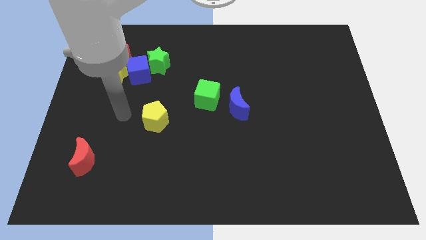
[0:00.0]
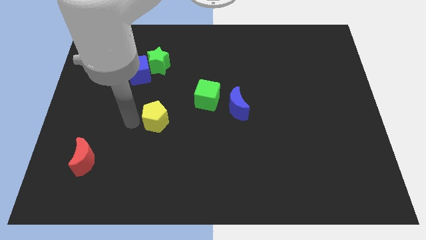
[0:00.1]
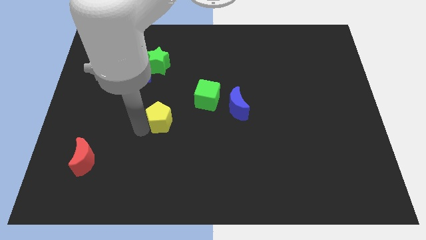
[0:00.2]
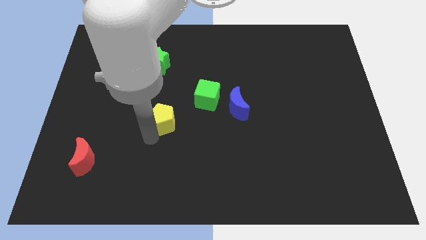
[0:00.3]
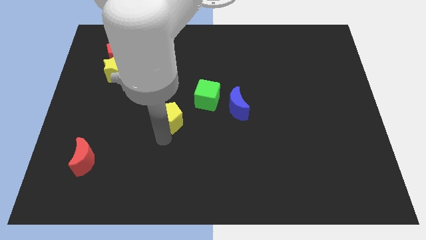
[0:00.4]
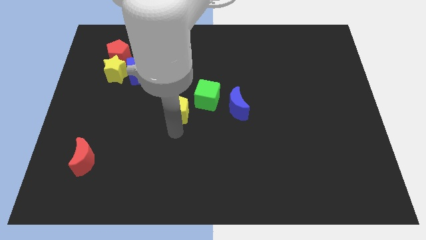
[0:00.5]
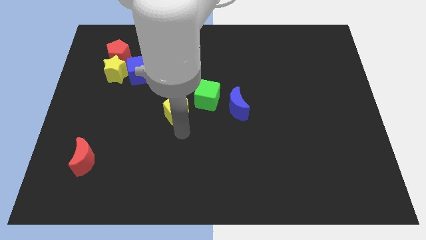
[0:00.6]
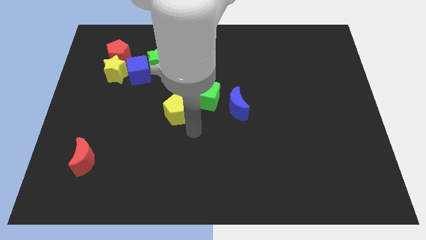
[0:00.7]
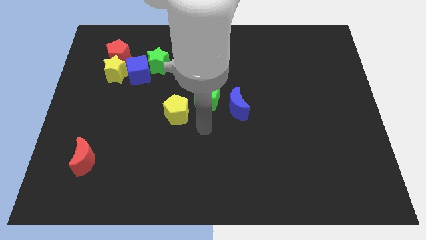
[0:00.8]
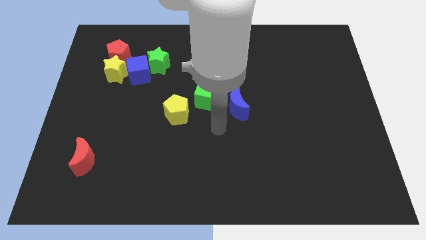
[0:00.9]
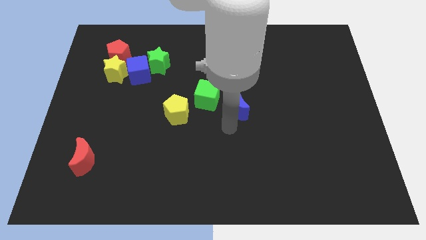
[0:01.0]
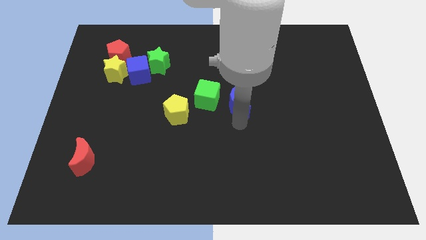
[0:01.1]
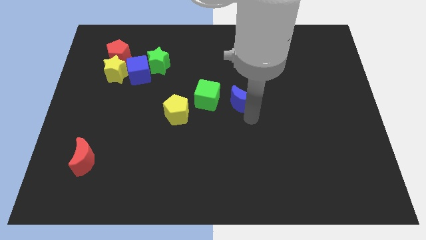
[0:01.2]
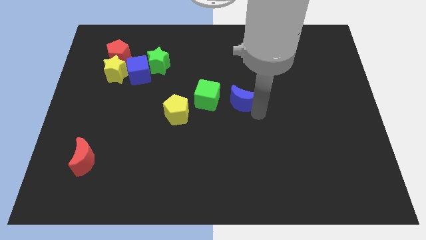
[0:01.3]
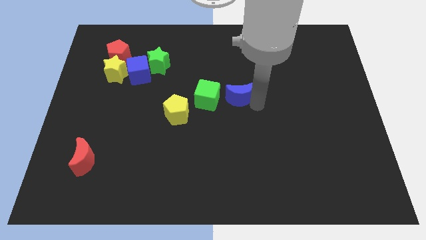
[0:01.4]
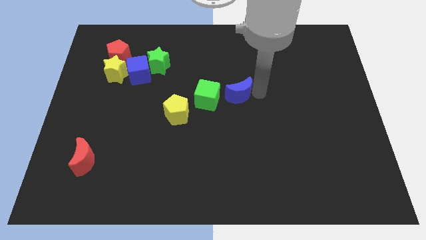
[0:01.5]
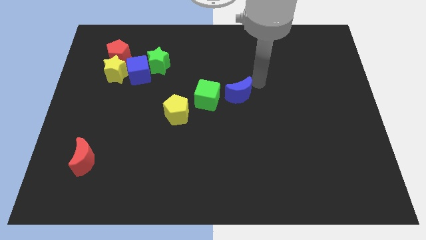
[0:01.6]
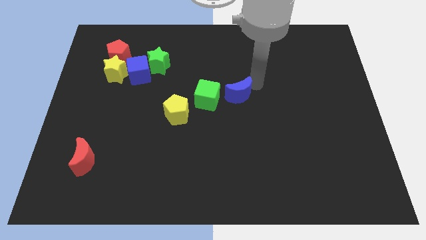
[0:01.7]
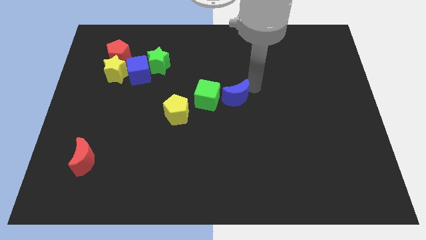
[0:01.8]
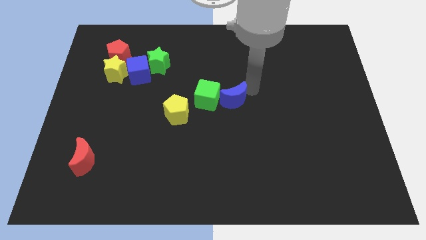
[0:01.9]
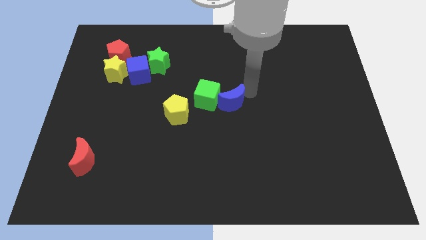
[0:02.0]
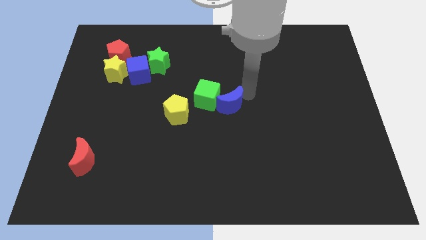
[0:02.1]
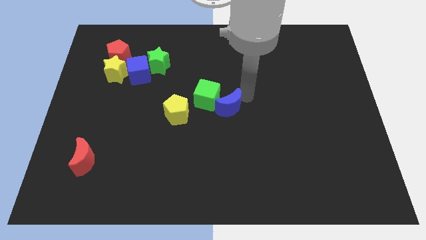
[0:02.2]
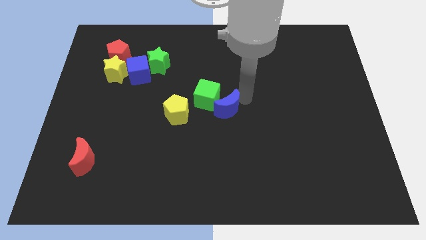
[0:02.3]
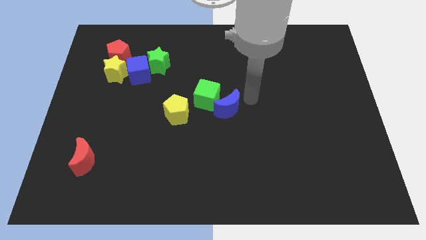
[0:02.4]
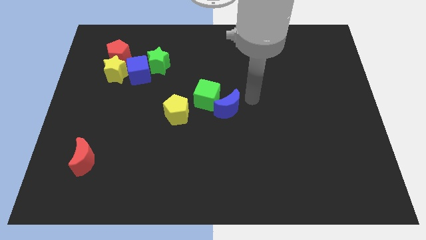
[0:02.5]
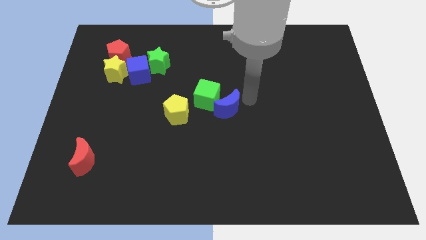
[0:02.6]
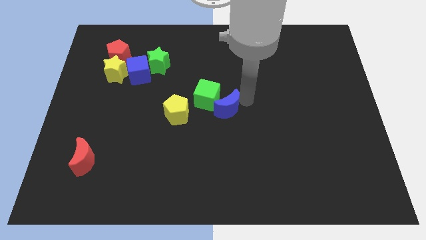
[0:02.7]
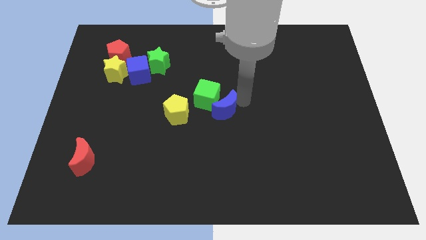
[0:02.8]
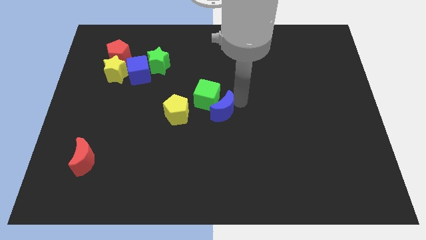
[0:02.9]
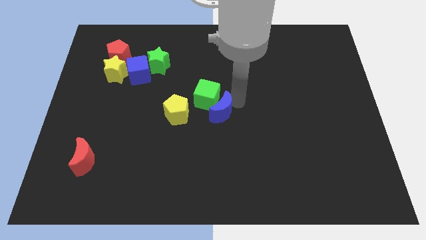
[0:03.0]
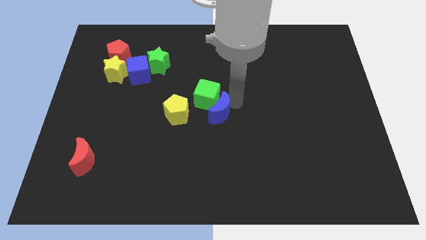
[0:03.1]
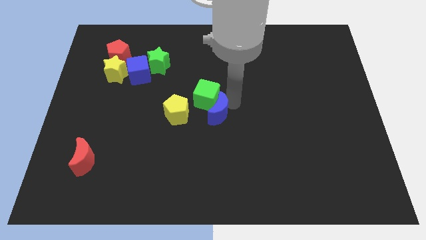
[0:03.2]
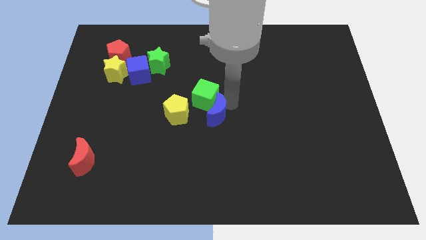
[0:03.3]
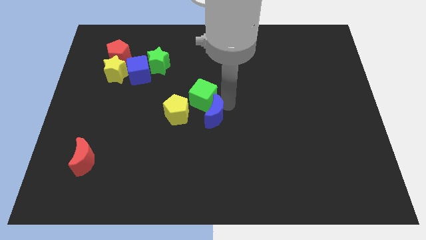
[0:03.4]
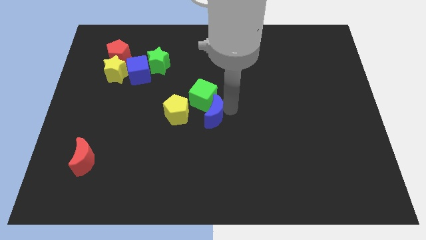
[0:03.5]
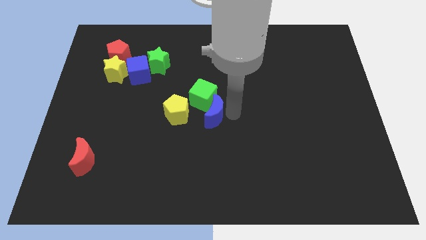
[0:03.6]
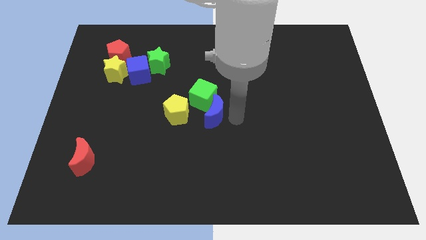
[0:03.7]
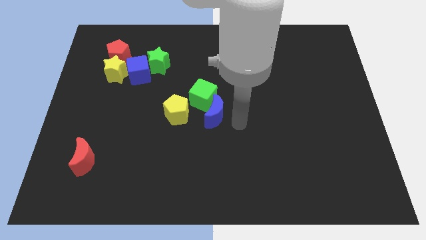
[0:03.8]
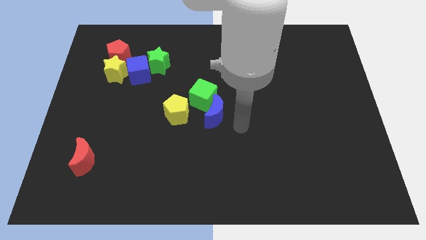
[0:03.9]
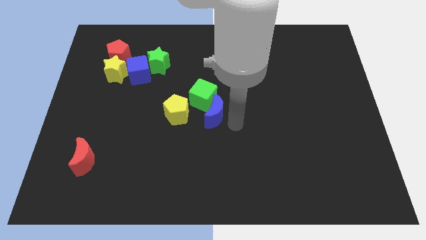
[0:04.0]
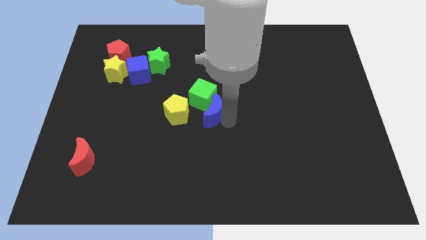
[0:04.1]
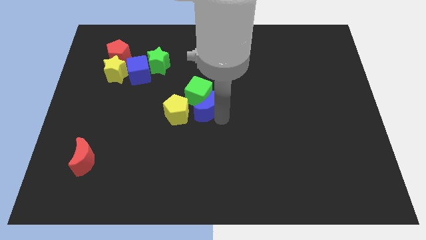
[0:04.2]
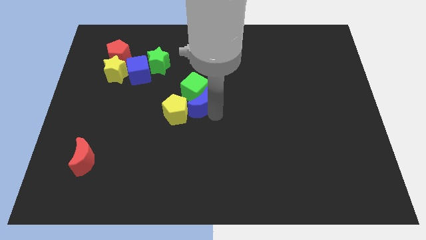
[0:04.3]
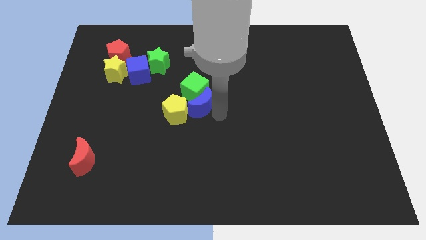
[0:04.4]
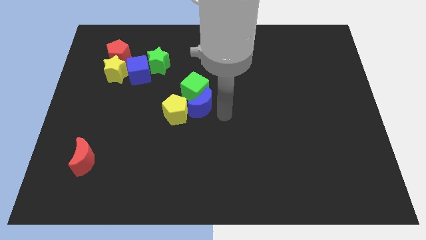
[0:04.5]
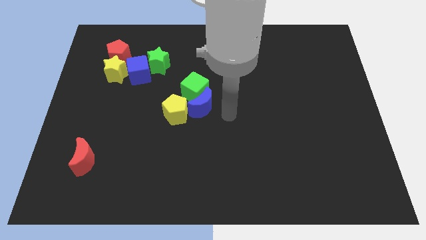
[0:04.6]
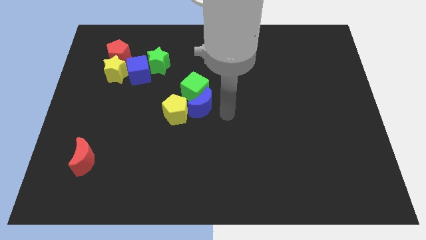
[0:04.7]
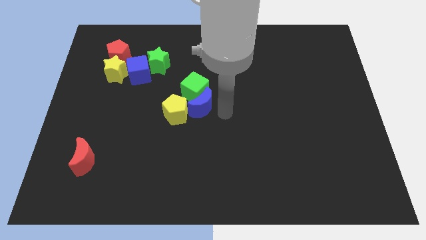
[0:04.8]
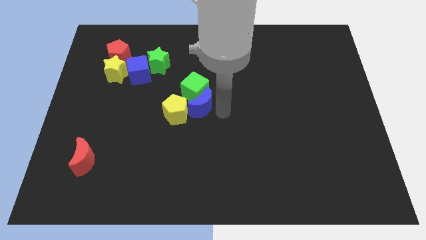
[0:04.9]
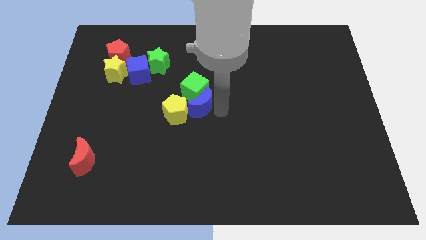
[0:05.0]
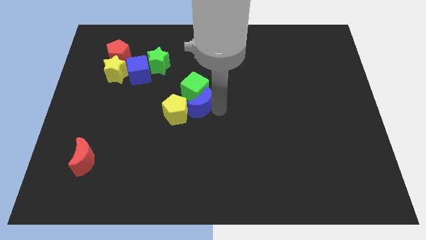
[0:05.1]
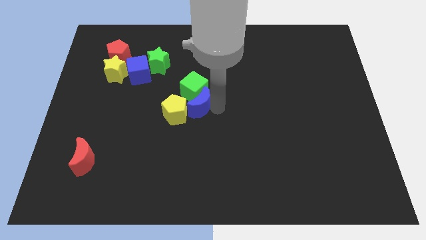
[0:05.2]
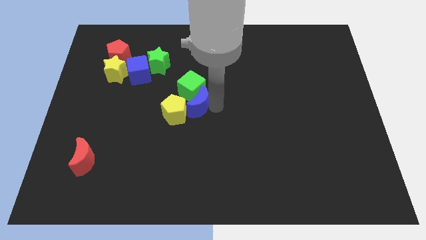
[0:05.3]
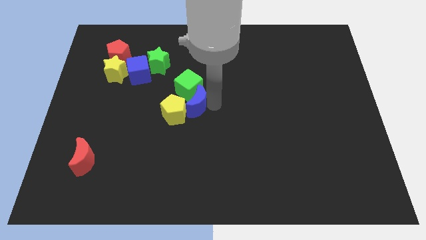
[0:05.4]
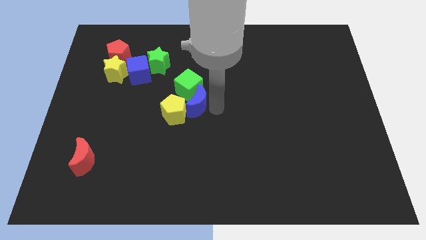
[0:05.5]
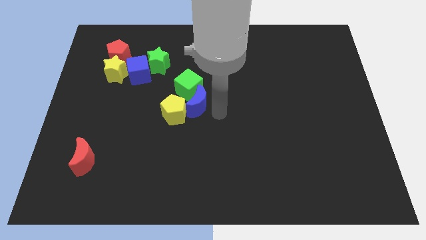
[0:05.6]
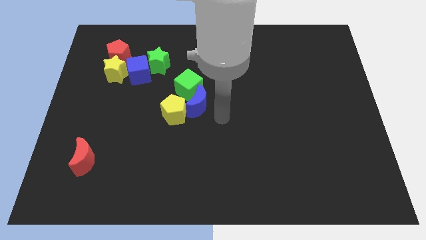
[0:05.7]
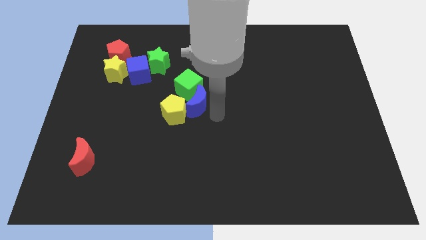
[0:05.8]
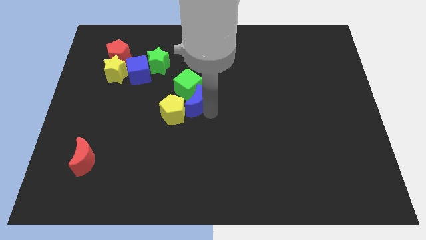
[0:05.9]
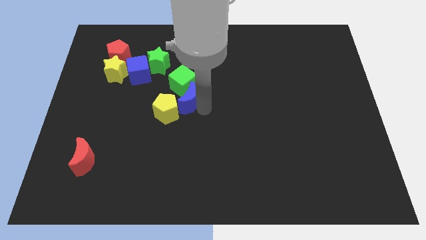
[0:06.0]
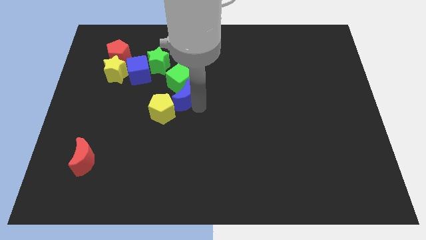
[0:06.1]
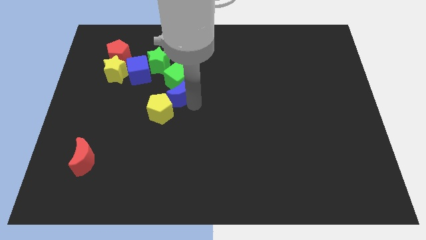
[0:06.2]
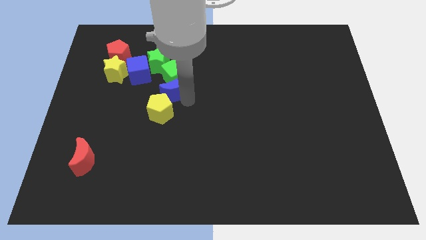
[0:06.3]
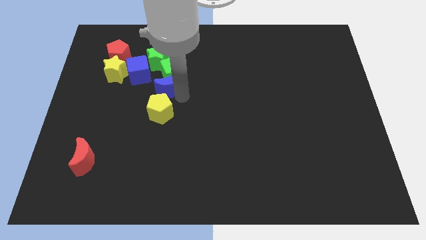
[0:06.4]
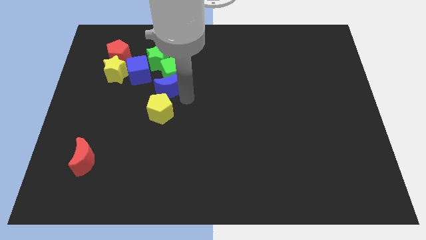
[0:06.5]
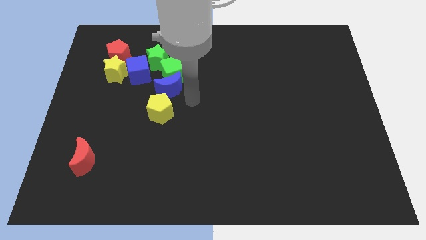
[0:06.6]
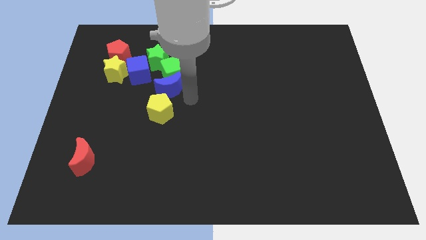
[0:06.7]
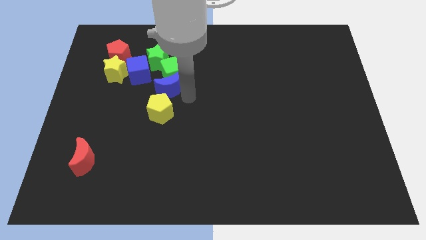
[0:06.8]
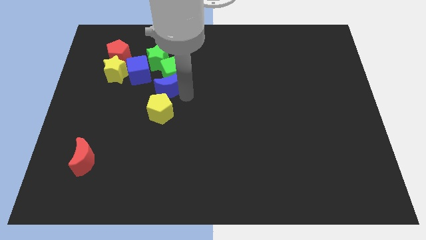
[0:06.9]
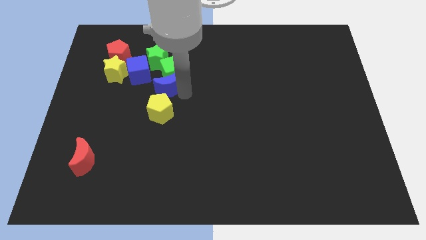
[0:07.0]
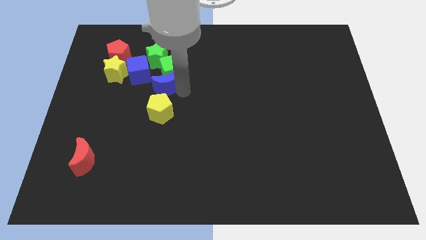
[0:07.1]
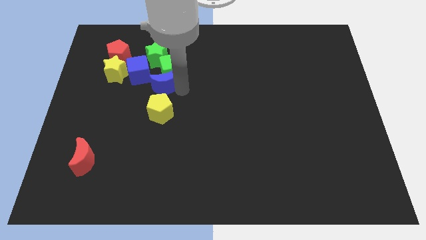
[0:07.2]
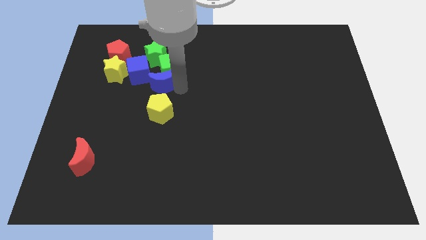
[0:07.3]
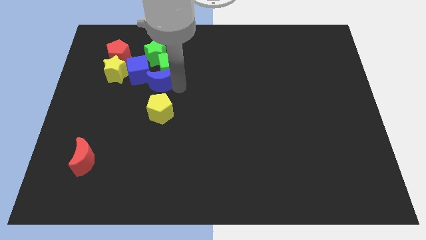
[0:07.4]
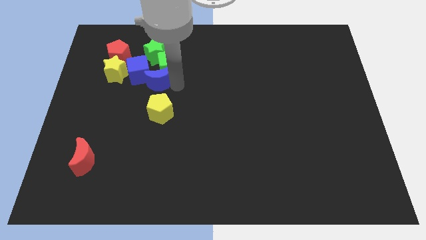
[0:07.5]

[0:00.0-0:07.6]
push the blue moon next to the blue cube

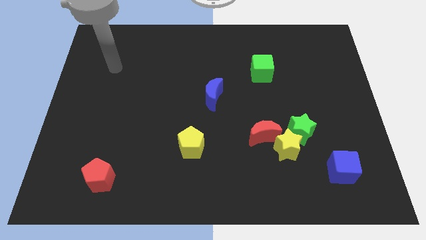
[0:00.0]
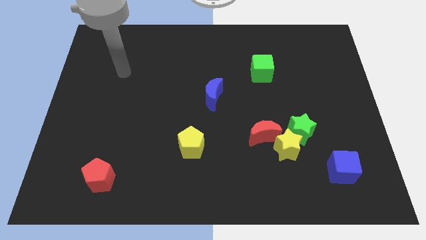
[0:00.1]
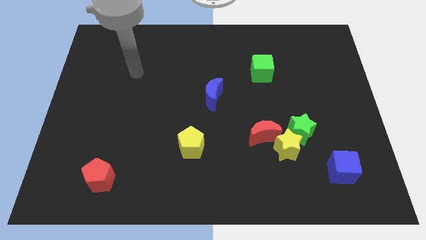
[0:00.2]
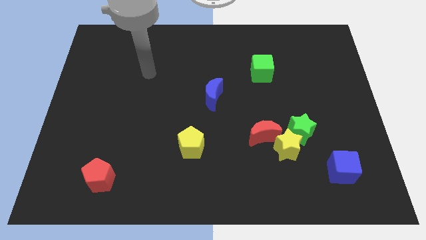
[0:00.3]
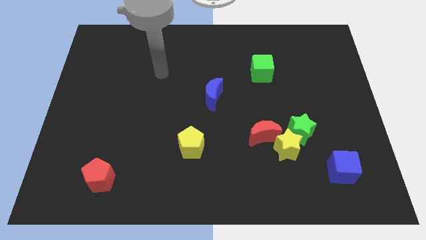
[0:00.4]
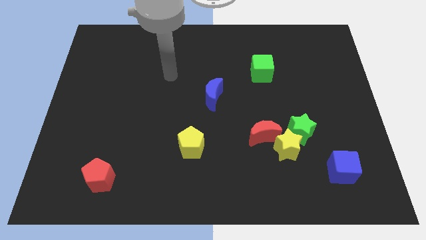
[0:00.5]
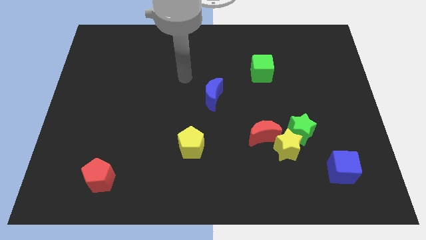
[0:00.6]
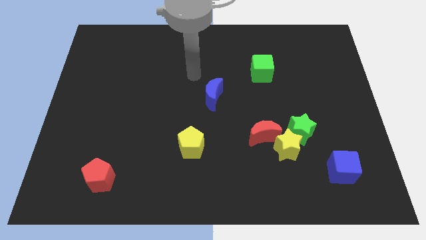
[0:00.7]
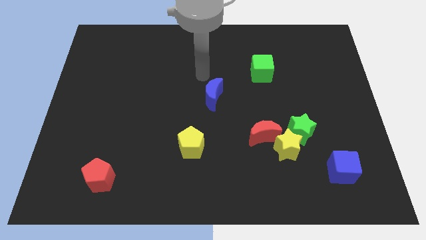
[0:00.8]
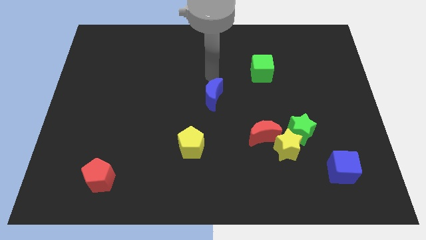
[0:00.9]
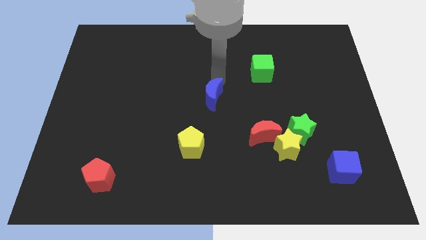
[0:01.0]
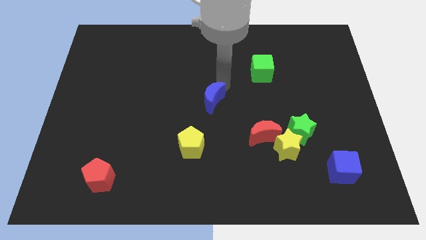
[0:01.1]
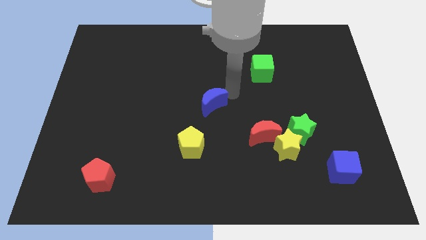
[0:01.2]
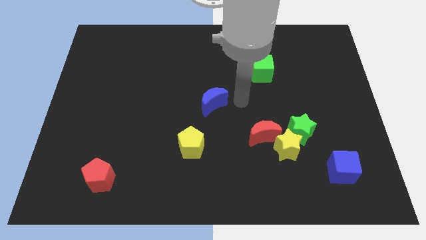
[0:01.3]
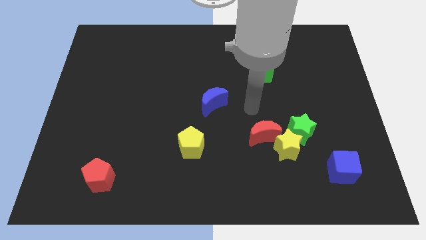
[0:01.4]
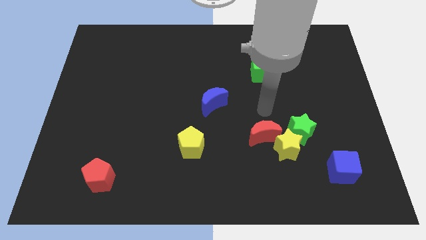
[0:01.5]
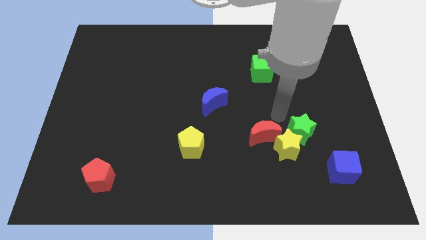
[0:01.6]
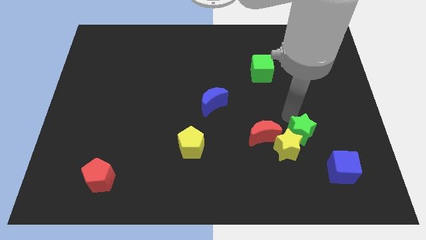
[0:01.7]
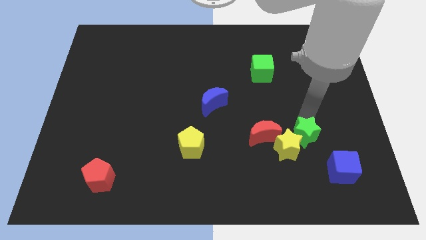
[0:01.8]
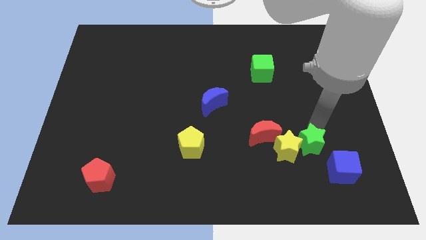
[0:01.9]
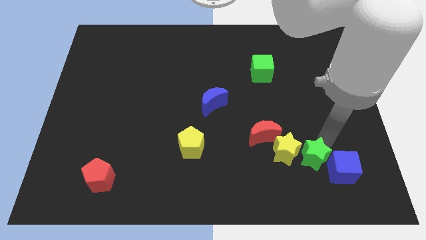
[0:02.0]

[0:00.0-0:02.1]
move the blue cube to the green star
